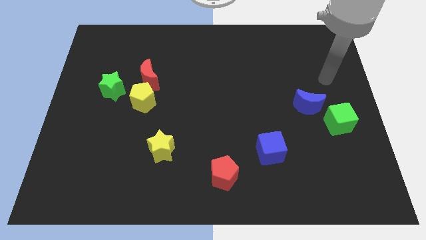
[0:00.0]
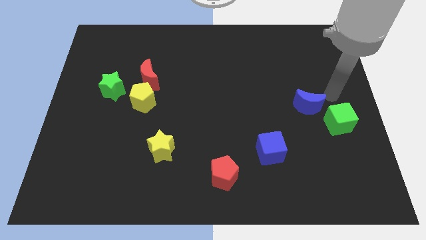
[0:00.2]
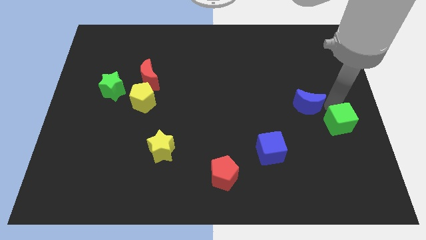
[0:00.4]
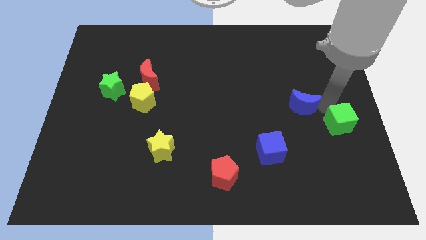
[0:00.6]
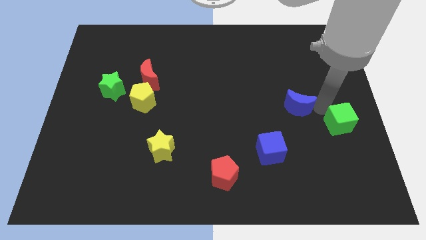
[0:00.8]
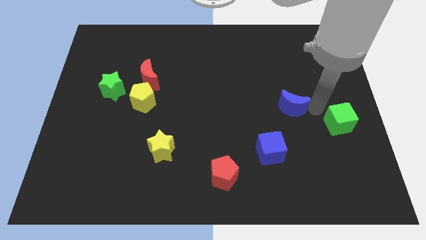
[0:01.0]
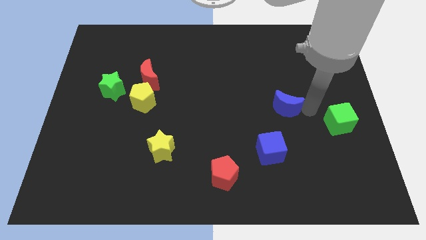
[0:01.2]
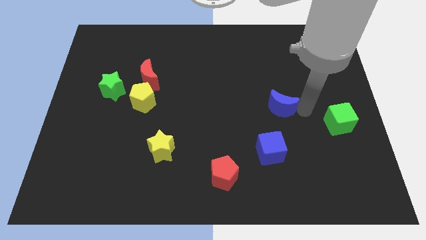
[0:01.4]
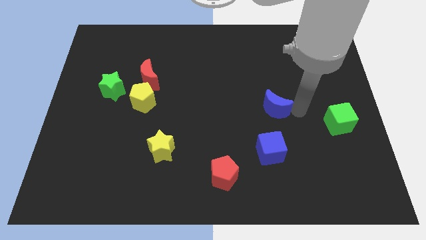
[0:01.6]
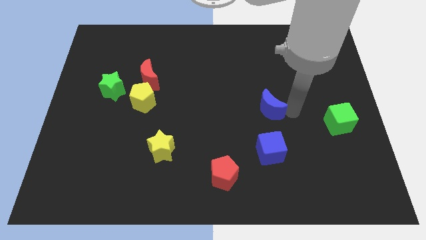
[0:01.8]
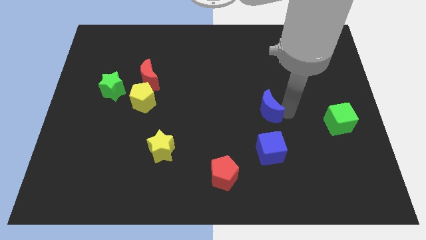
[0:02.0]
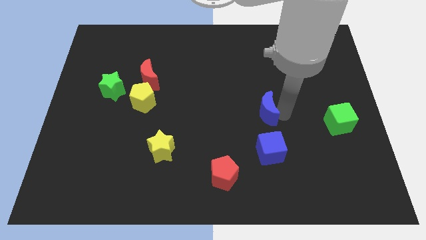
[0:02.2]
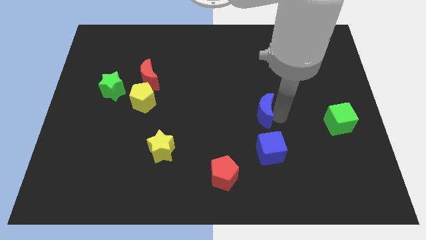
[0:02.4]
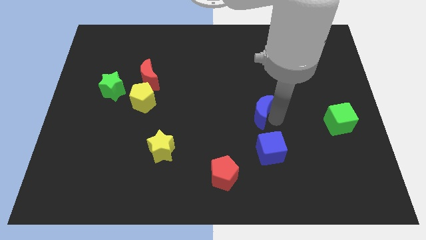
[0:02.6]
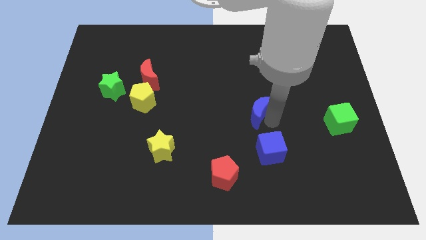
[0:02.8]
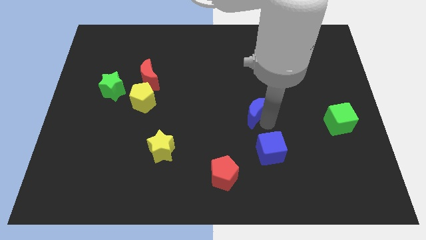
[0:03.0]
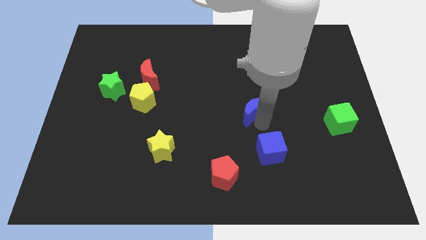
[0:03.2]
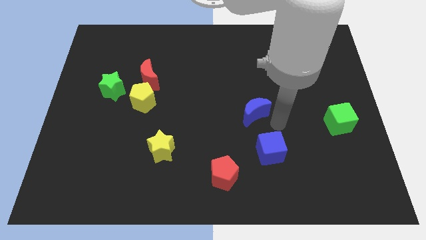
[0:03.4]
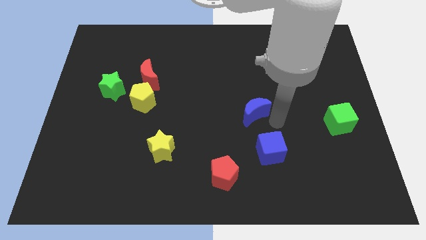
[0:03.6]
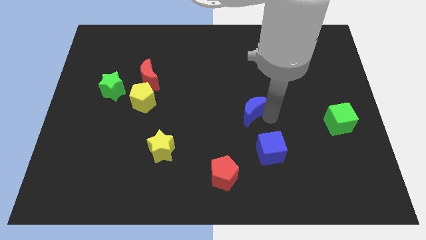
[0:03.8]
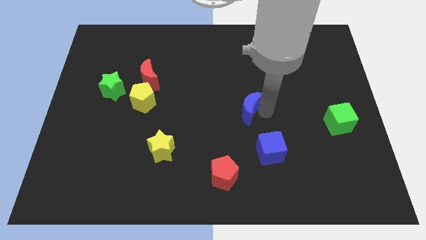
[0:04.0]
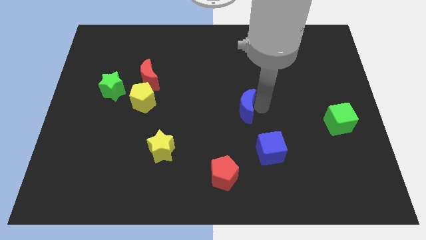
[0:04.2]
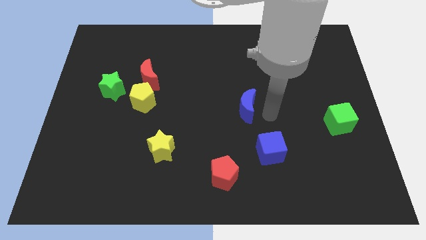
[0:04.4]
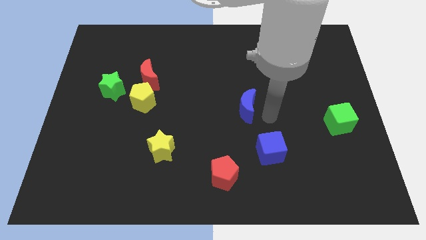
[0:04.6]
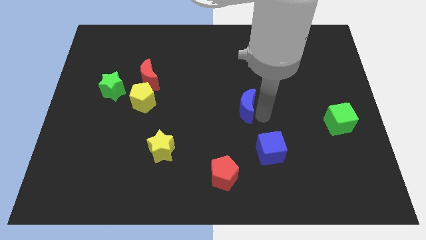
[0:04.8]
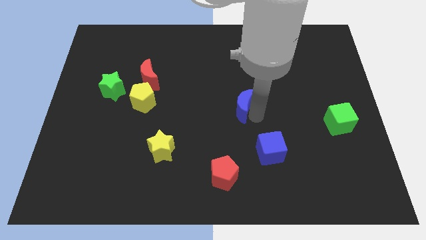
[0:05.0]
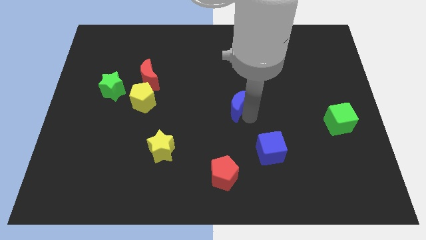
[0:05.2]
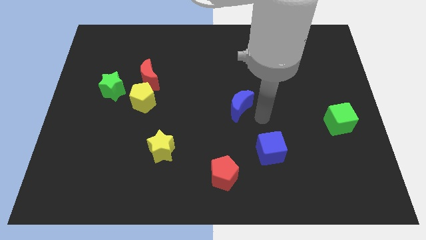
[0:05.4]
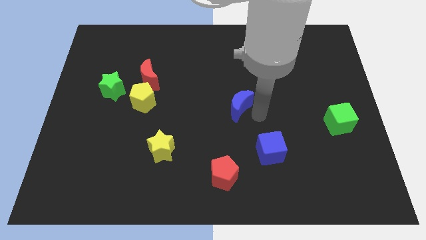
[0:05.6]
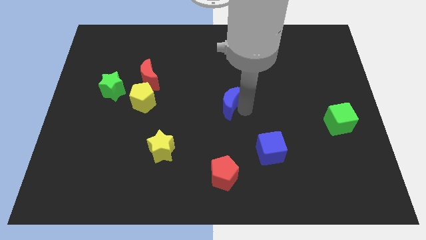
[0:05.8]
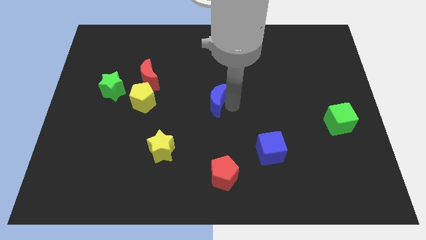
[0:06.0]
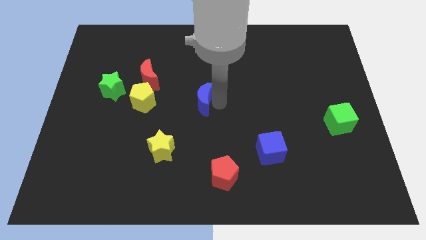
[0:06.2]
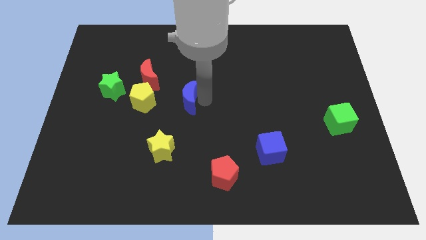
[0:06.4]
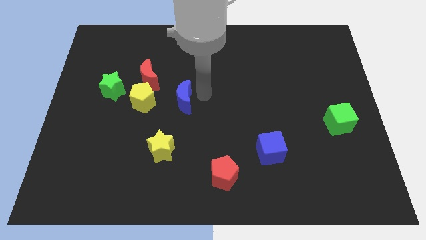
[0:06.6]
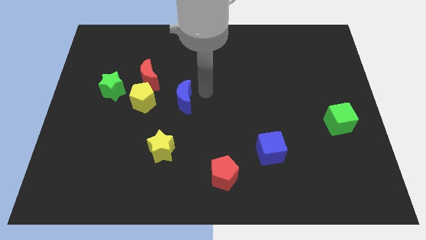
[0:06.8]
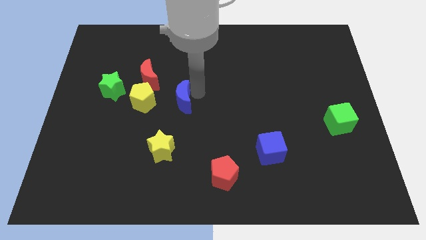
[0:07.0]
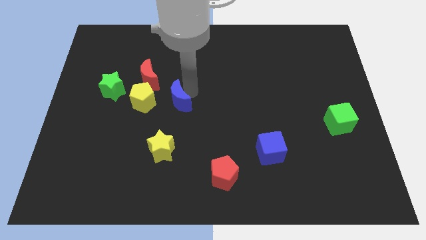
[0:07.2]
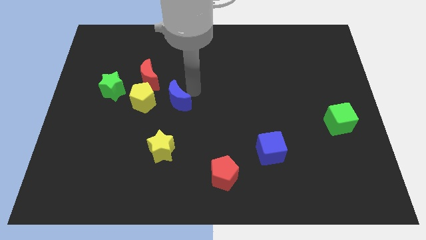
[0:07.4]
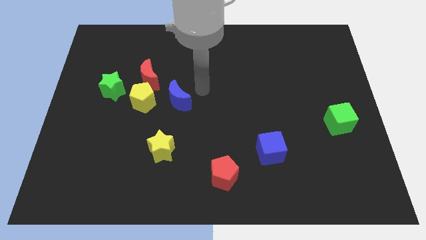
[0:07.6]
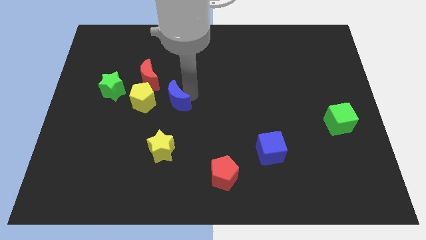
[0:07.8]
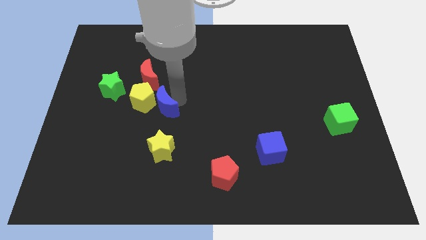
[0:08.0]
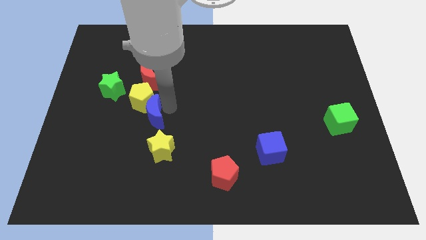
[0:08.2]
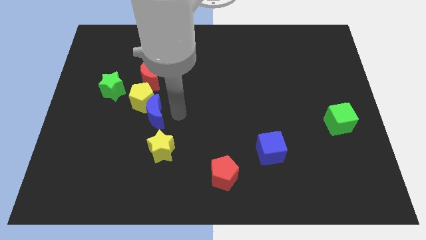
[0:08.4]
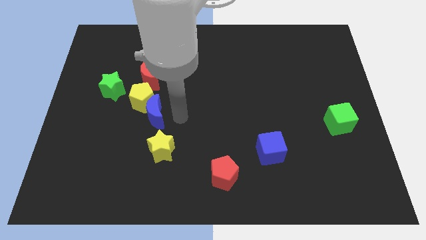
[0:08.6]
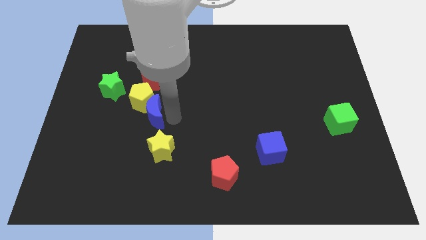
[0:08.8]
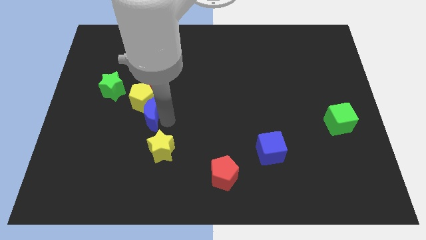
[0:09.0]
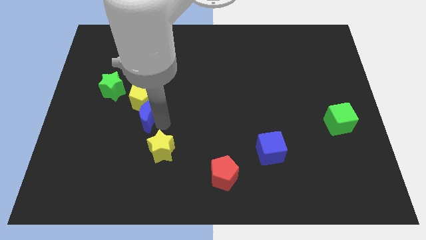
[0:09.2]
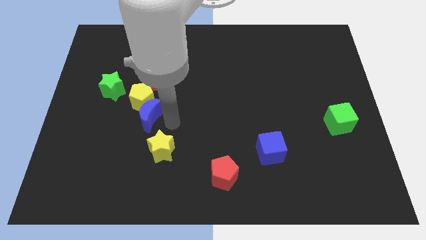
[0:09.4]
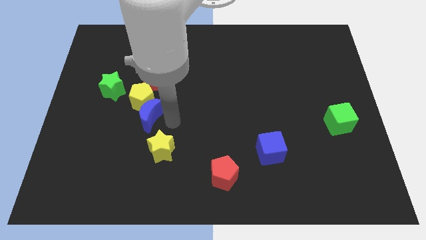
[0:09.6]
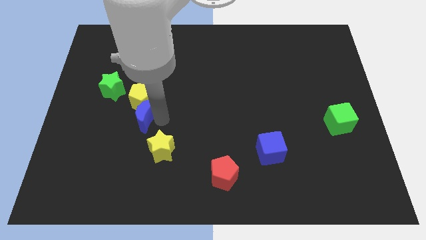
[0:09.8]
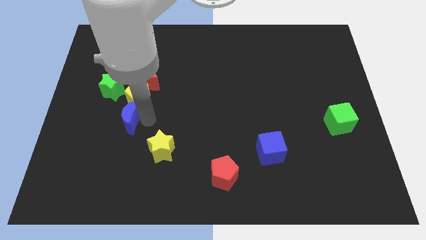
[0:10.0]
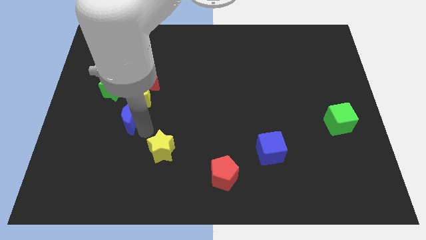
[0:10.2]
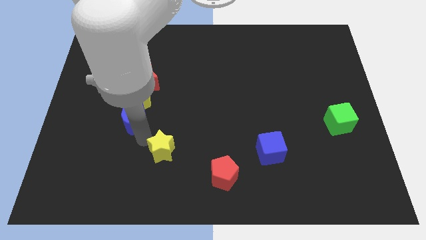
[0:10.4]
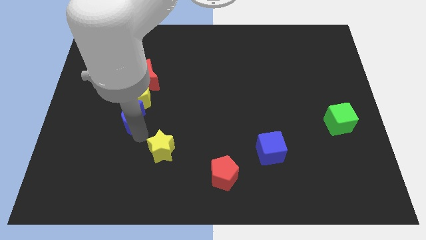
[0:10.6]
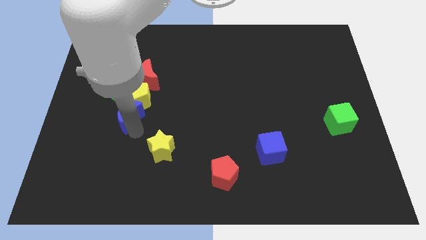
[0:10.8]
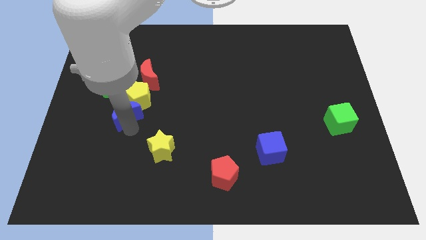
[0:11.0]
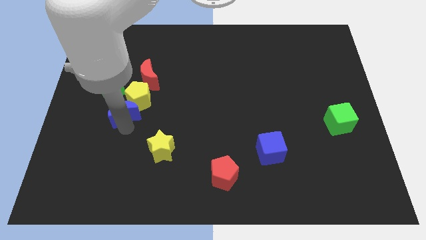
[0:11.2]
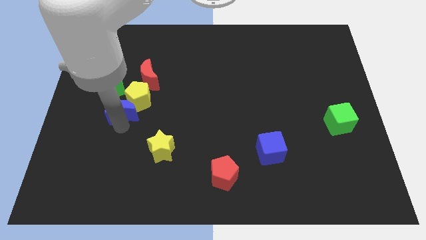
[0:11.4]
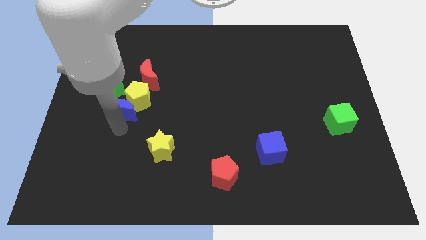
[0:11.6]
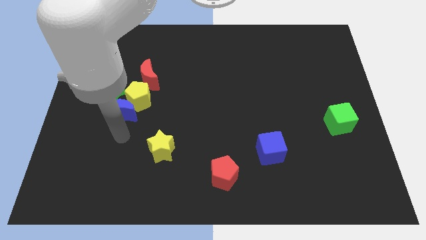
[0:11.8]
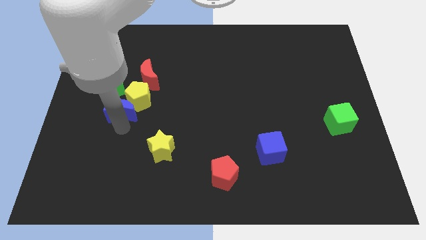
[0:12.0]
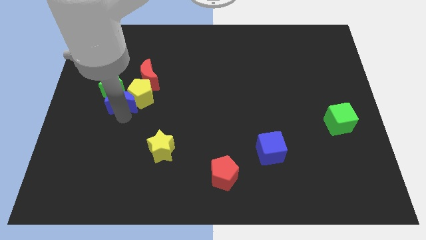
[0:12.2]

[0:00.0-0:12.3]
slide the blue moon to the green star

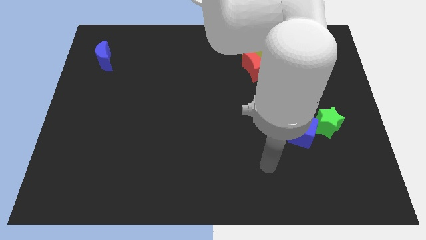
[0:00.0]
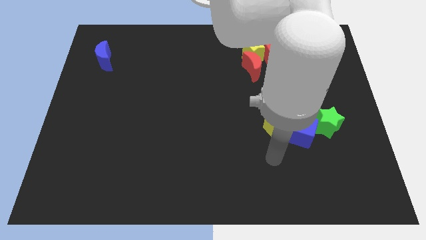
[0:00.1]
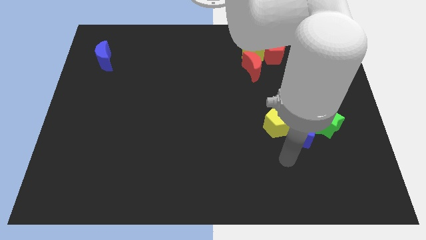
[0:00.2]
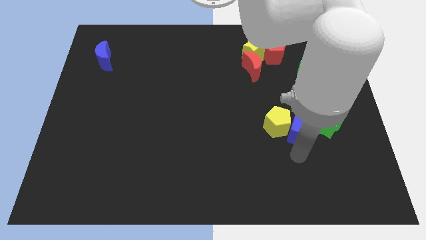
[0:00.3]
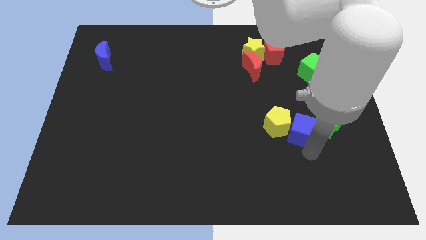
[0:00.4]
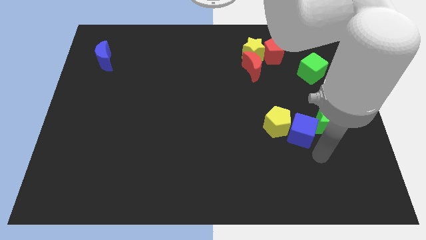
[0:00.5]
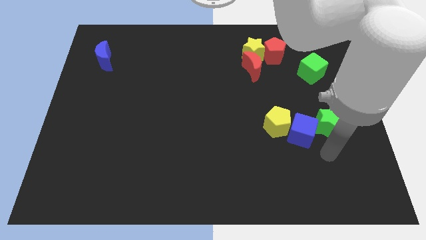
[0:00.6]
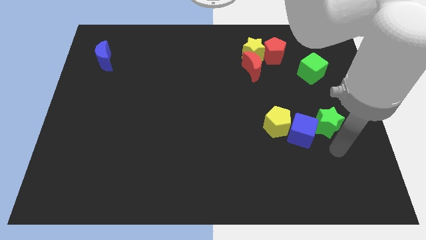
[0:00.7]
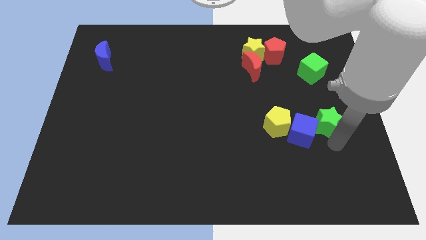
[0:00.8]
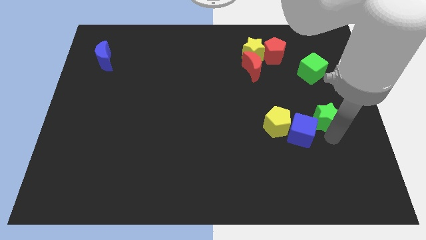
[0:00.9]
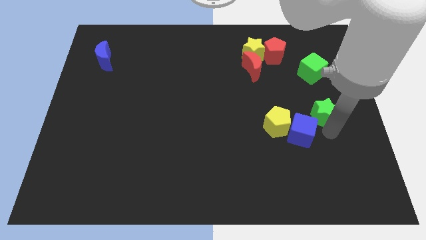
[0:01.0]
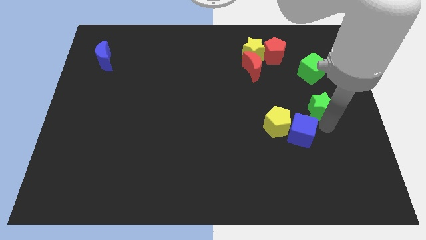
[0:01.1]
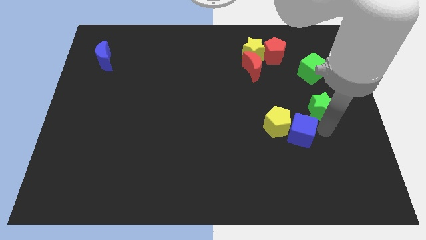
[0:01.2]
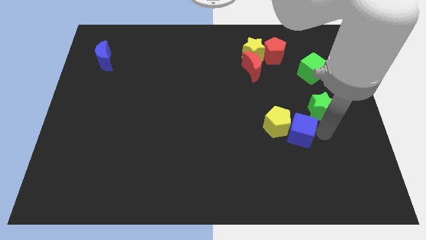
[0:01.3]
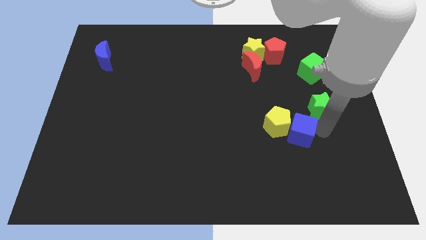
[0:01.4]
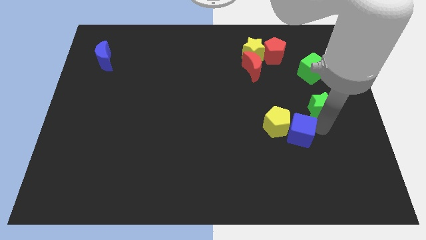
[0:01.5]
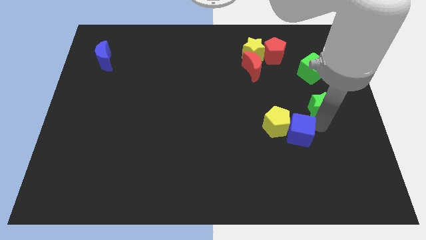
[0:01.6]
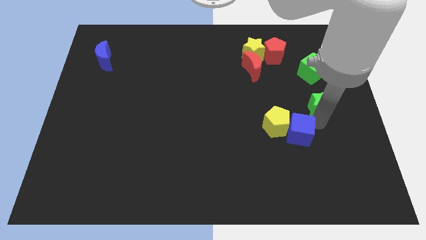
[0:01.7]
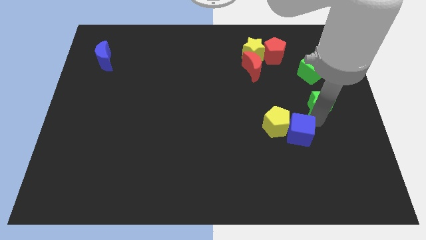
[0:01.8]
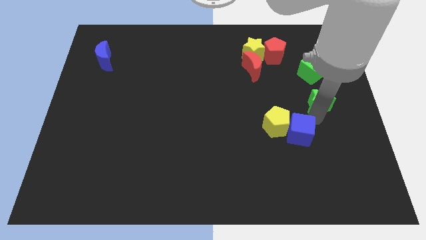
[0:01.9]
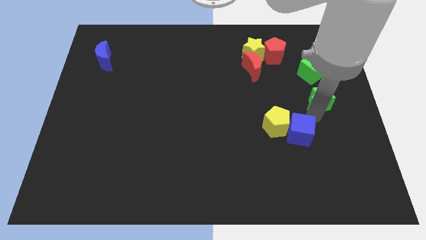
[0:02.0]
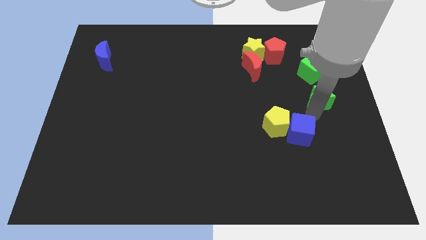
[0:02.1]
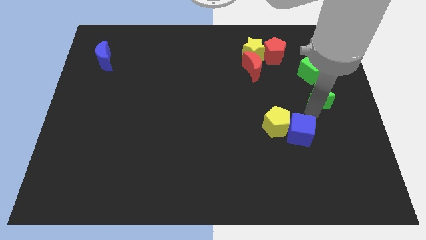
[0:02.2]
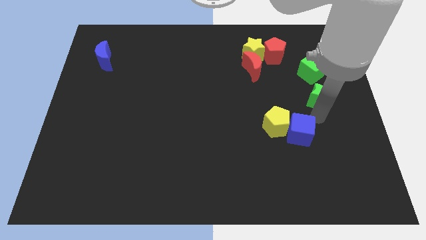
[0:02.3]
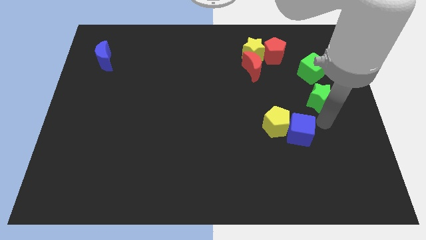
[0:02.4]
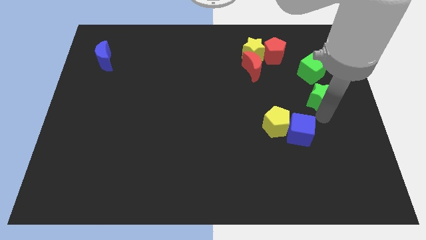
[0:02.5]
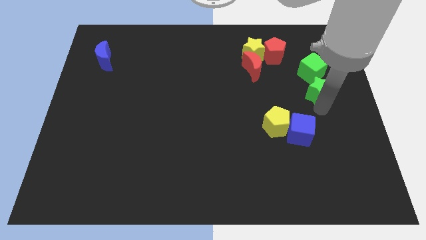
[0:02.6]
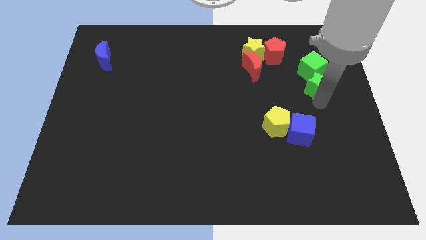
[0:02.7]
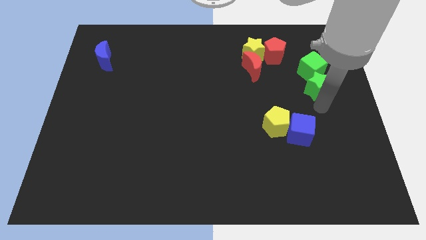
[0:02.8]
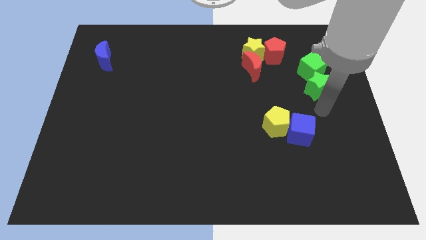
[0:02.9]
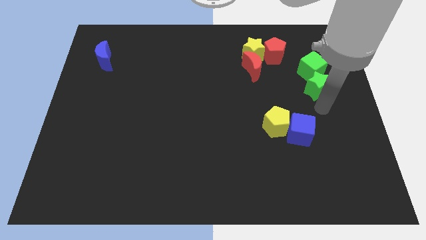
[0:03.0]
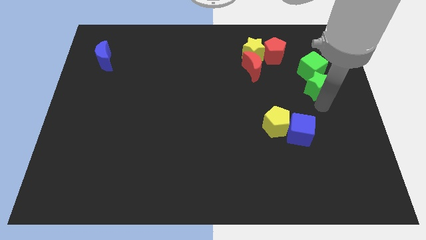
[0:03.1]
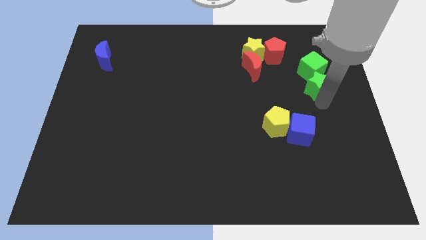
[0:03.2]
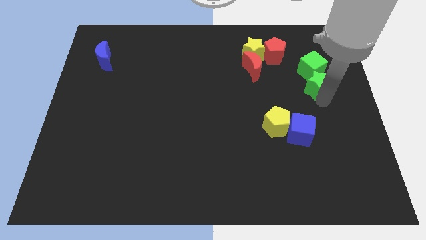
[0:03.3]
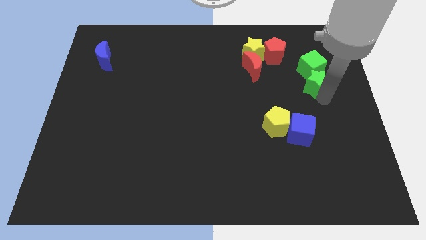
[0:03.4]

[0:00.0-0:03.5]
slide the green star to the green cube
